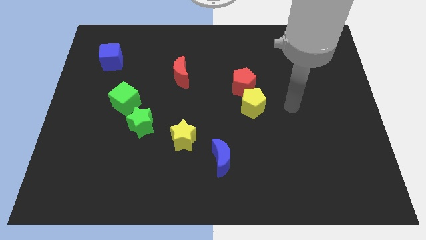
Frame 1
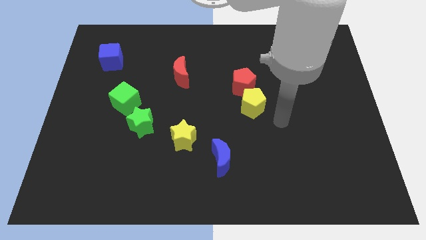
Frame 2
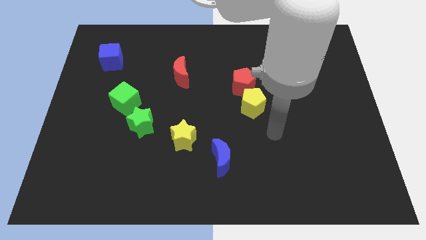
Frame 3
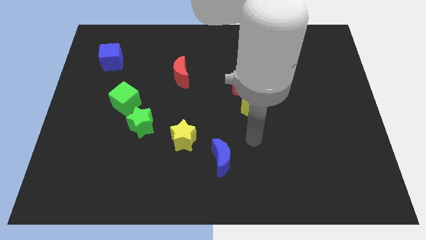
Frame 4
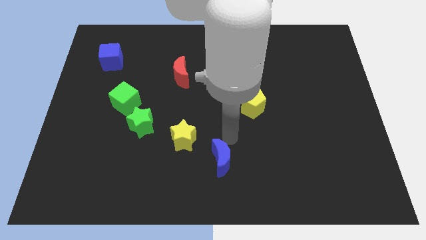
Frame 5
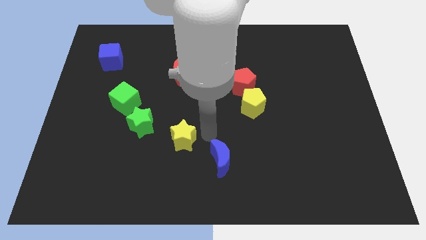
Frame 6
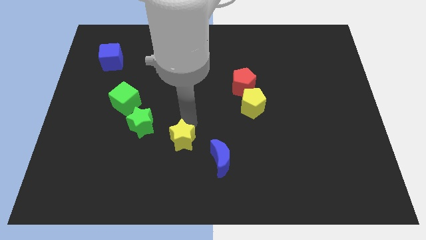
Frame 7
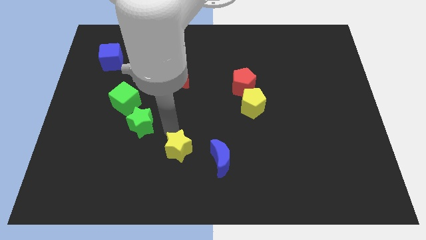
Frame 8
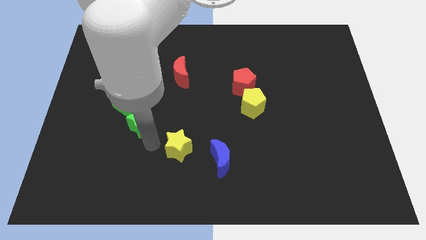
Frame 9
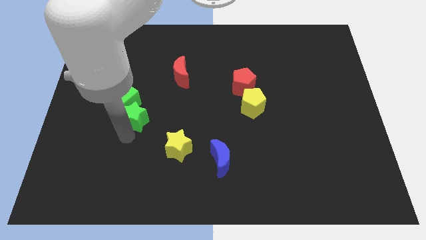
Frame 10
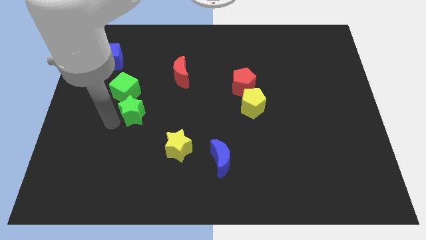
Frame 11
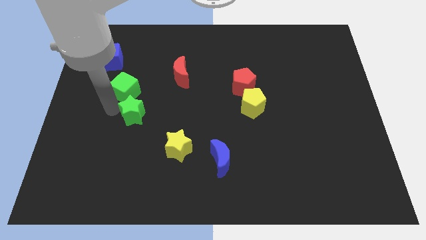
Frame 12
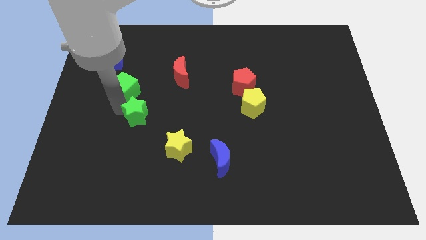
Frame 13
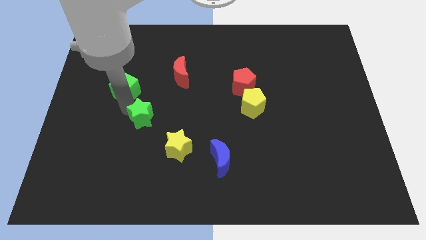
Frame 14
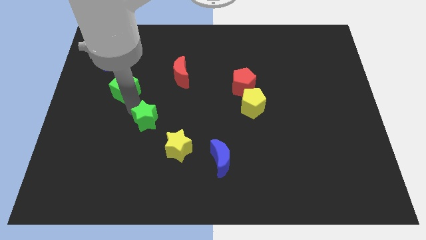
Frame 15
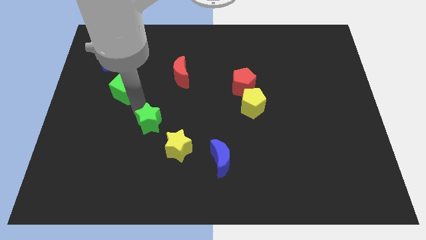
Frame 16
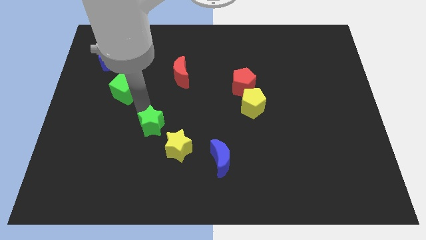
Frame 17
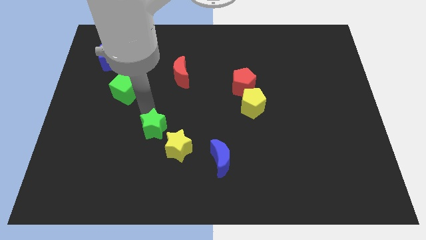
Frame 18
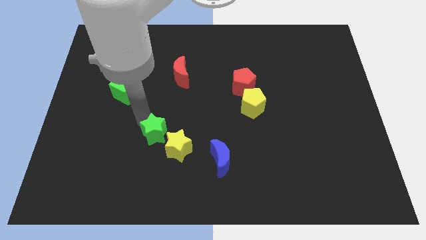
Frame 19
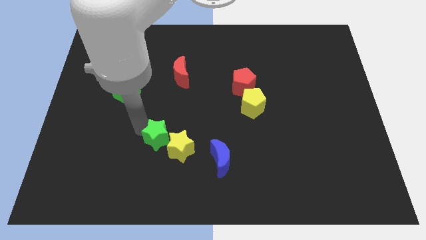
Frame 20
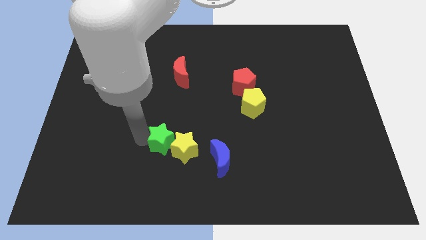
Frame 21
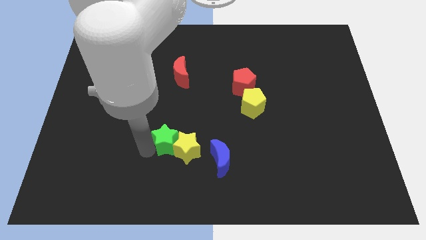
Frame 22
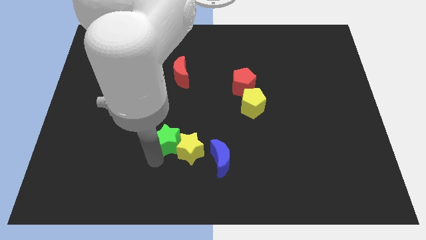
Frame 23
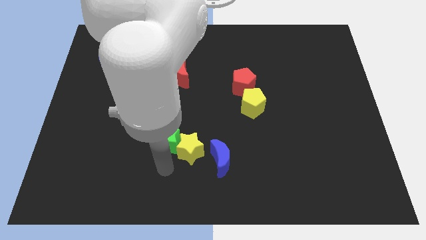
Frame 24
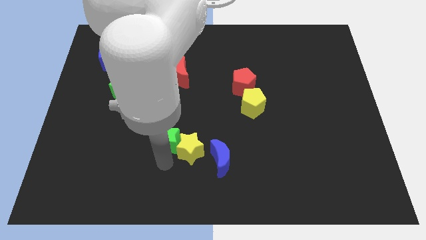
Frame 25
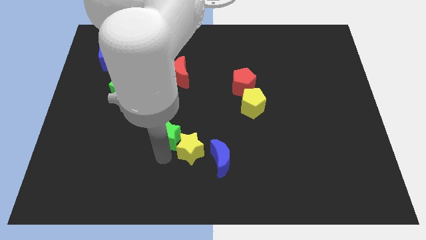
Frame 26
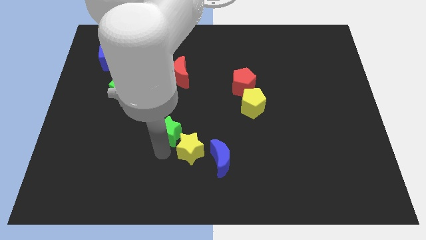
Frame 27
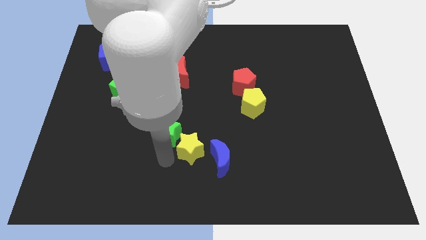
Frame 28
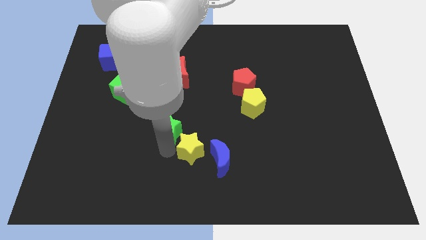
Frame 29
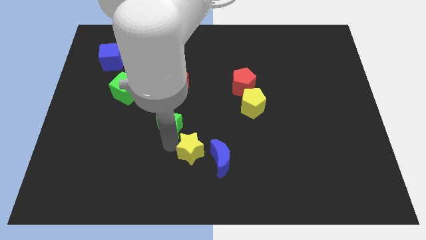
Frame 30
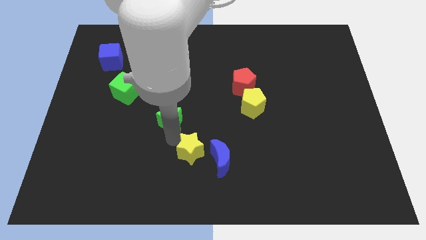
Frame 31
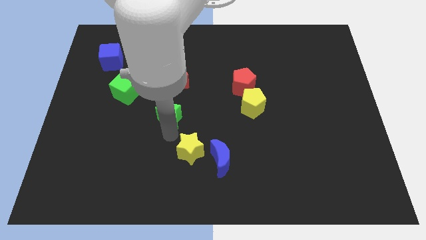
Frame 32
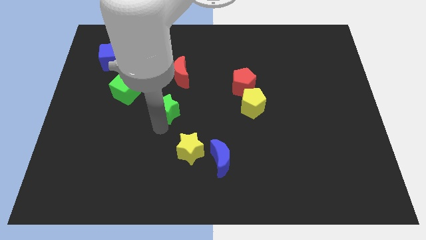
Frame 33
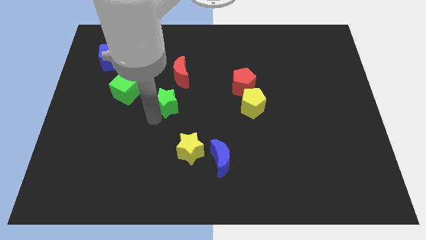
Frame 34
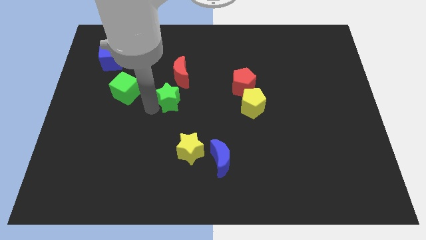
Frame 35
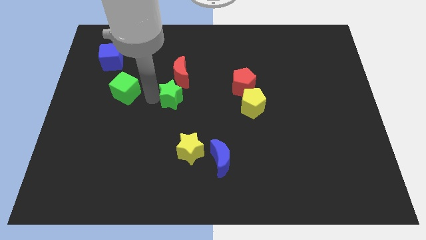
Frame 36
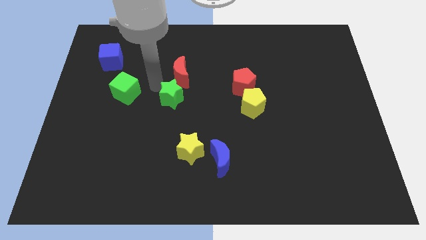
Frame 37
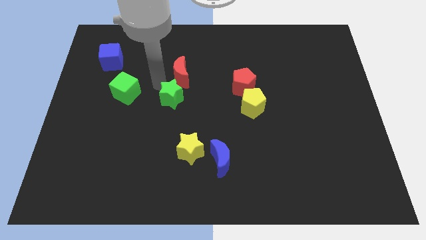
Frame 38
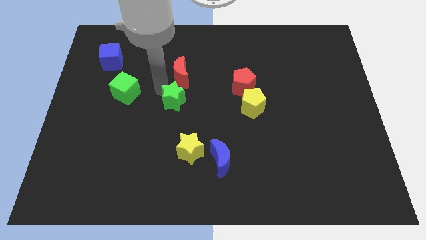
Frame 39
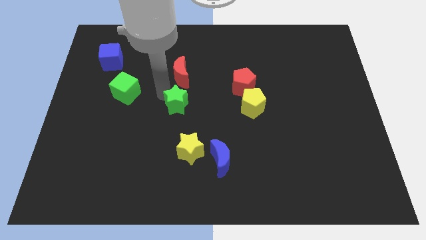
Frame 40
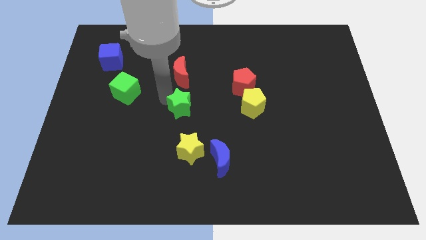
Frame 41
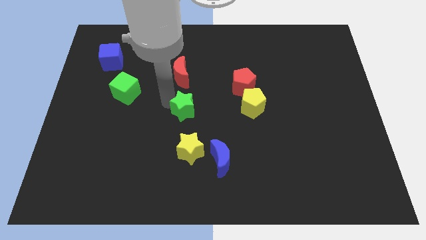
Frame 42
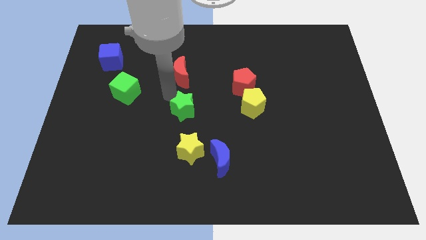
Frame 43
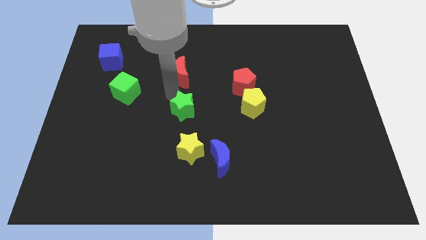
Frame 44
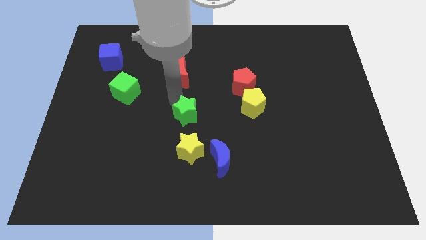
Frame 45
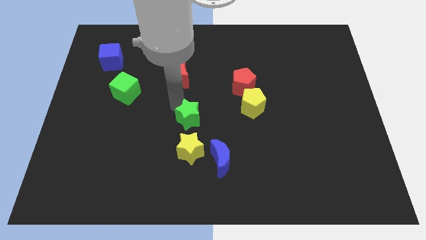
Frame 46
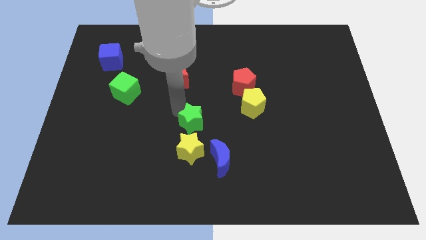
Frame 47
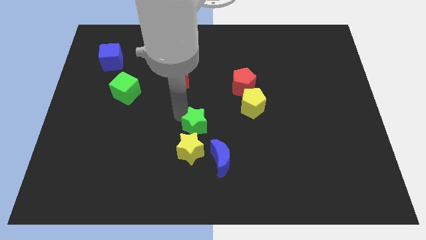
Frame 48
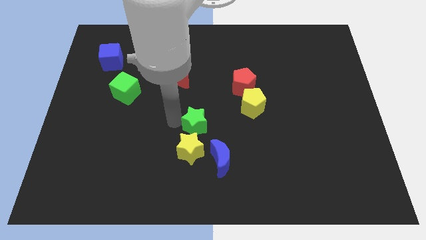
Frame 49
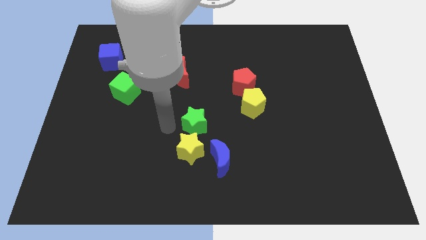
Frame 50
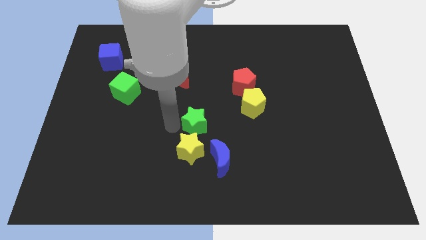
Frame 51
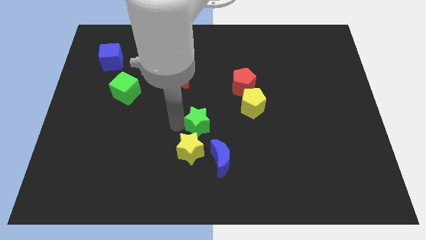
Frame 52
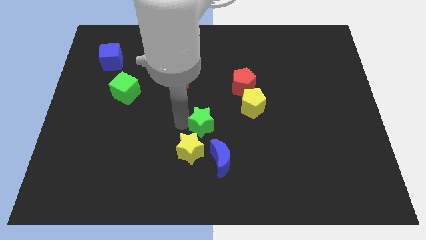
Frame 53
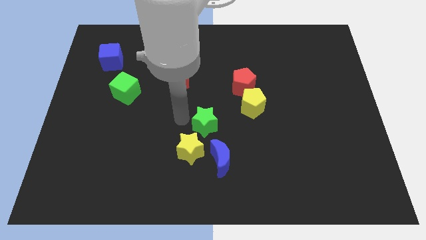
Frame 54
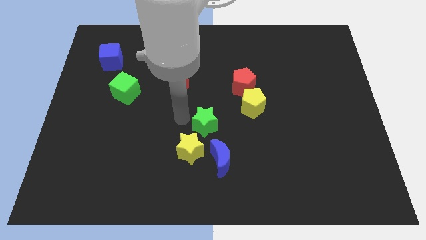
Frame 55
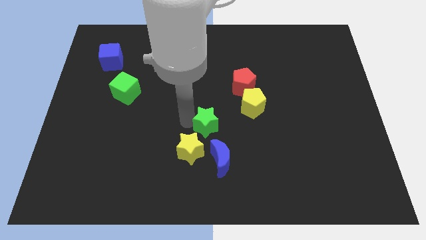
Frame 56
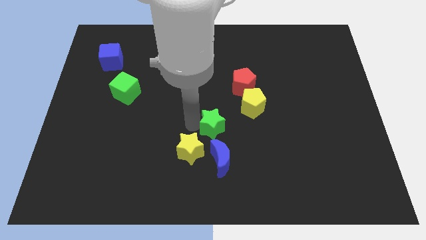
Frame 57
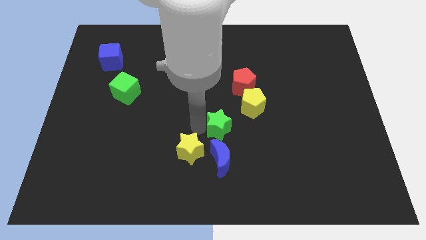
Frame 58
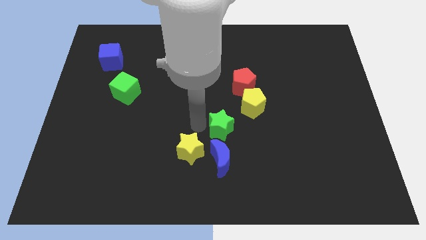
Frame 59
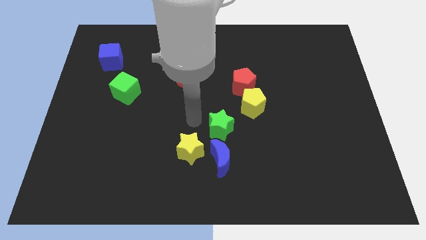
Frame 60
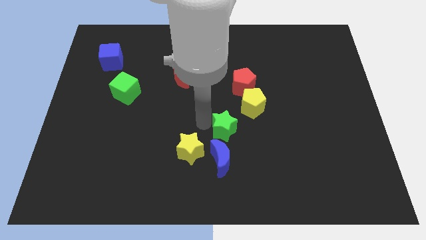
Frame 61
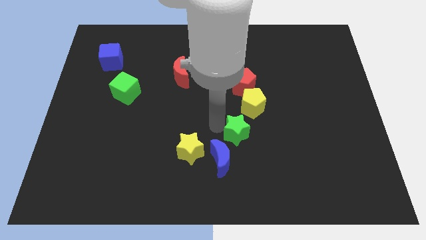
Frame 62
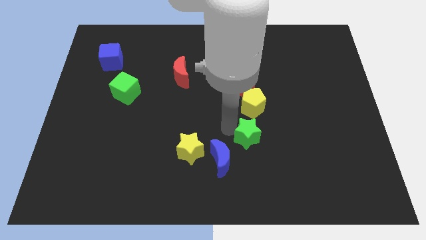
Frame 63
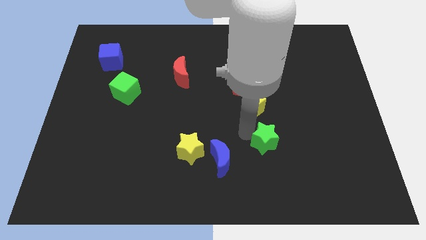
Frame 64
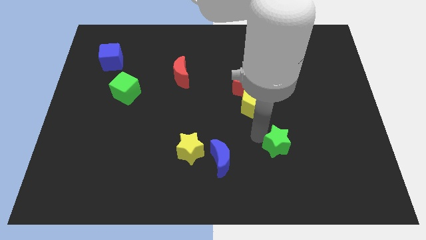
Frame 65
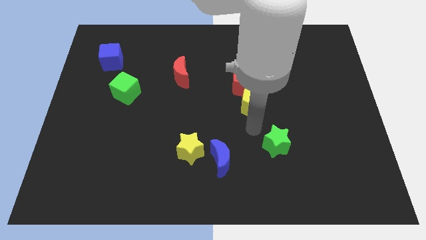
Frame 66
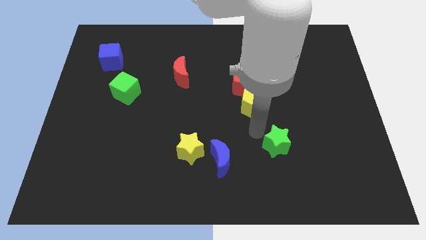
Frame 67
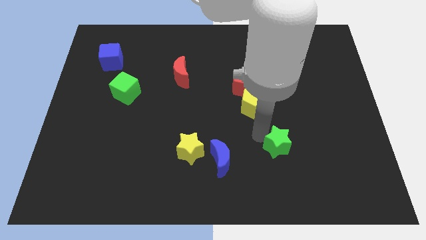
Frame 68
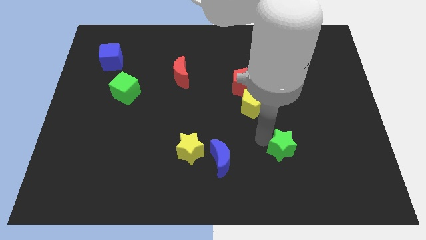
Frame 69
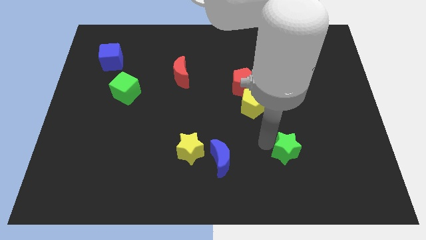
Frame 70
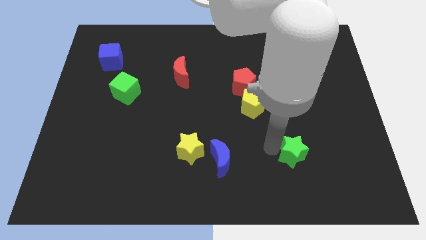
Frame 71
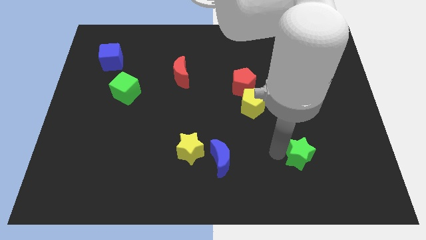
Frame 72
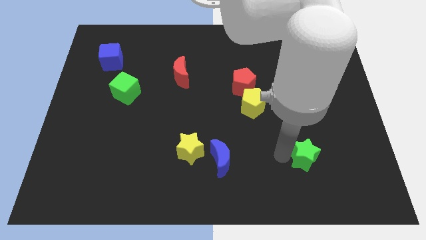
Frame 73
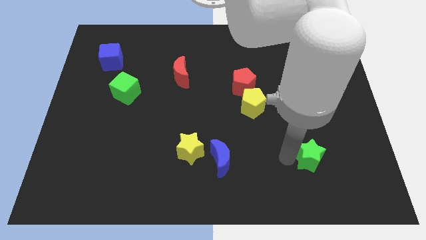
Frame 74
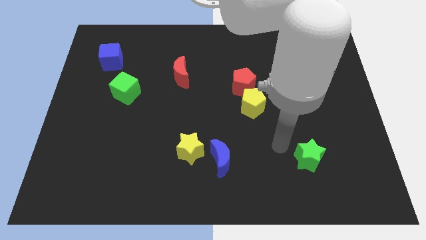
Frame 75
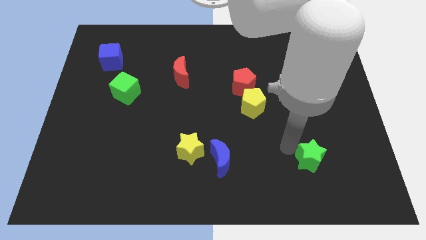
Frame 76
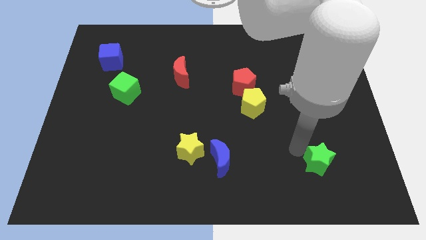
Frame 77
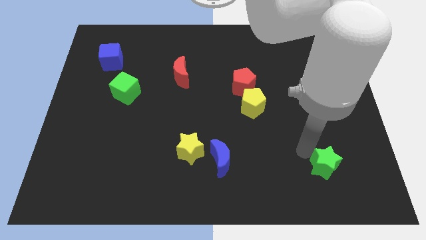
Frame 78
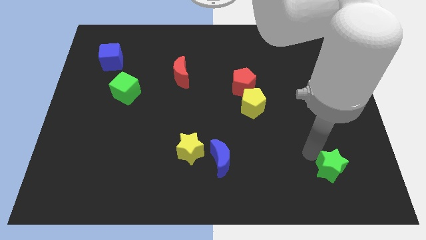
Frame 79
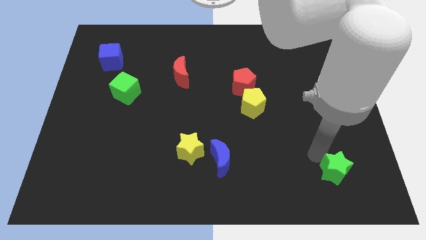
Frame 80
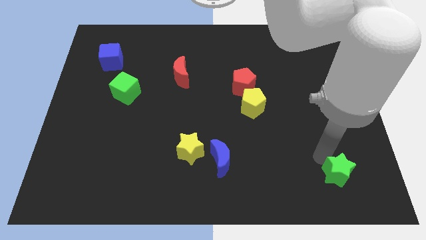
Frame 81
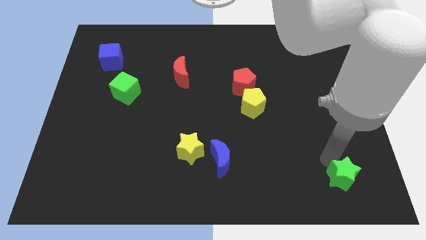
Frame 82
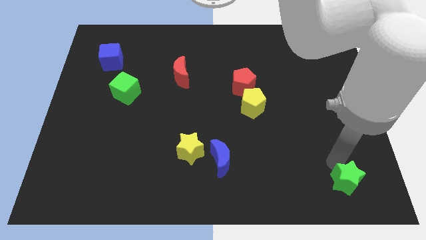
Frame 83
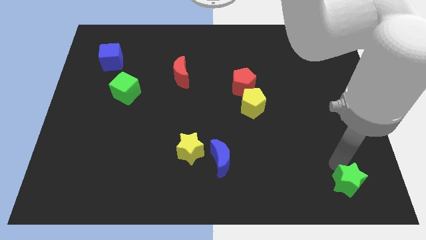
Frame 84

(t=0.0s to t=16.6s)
move the green star to the lower right corner
